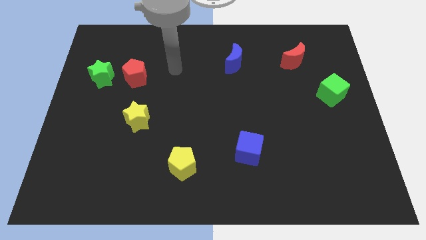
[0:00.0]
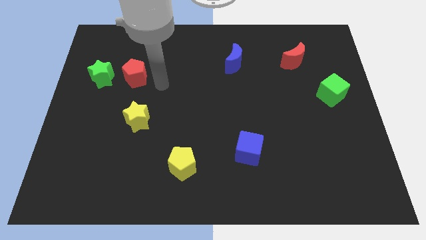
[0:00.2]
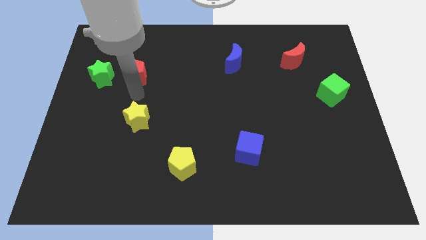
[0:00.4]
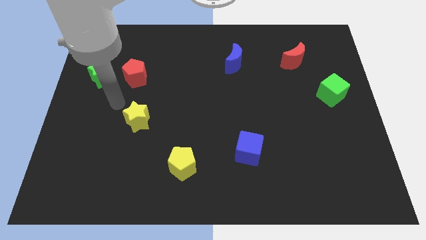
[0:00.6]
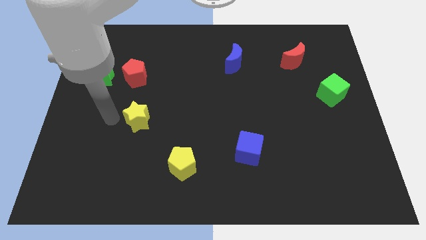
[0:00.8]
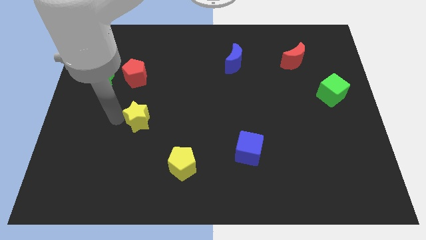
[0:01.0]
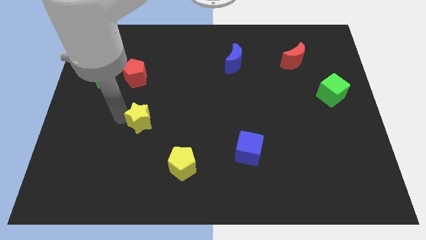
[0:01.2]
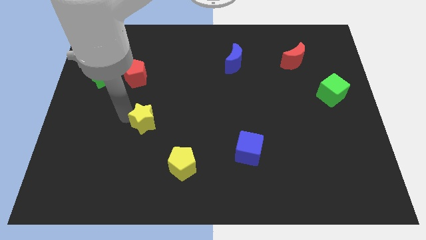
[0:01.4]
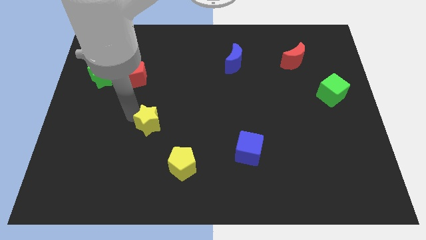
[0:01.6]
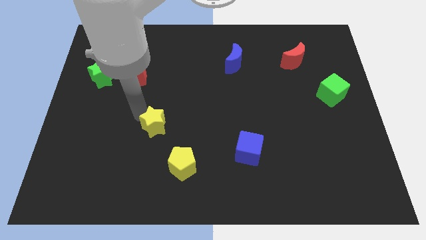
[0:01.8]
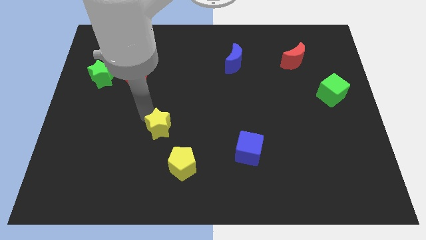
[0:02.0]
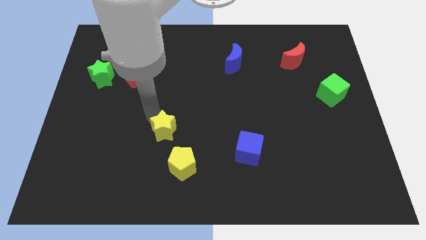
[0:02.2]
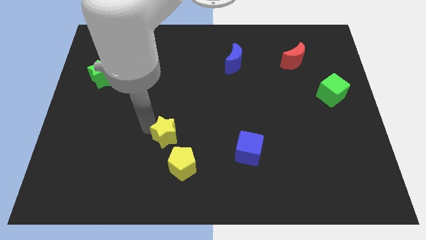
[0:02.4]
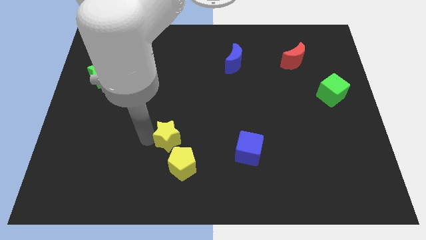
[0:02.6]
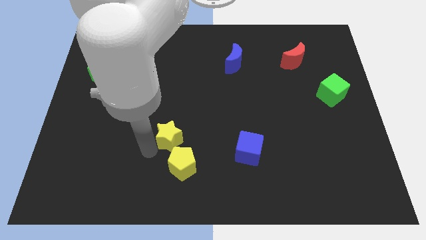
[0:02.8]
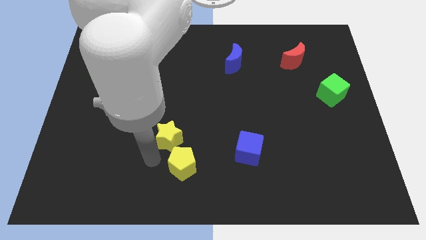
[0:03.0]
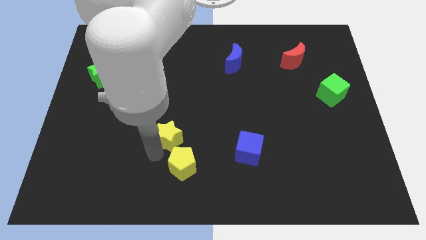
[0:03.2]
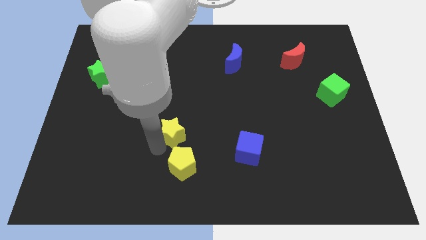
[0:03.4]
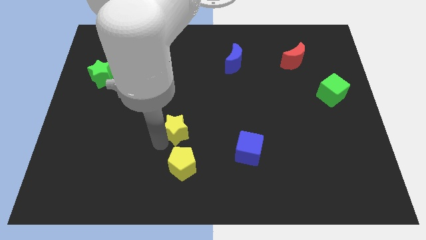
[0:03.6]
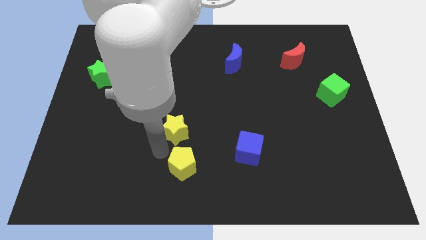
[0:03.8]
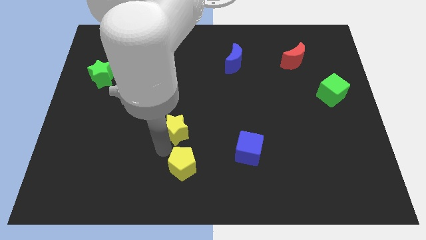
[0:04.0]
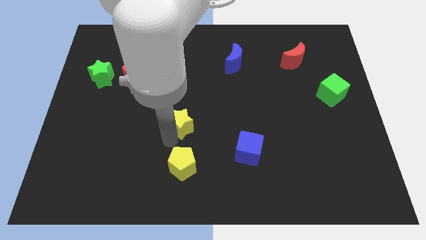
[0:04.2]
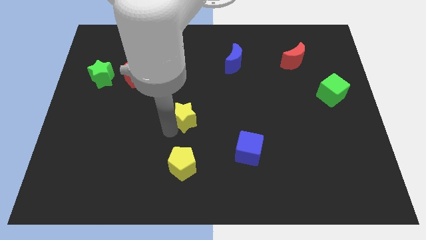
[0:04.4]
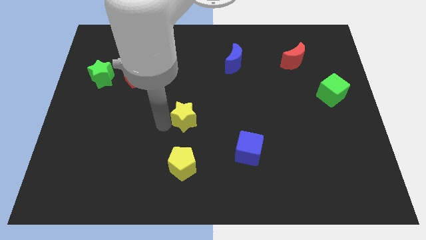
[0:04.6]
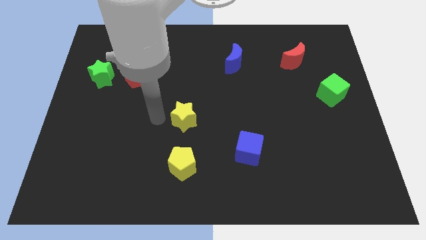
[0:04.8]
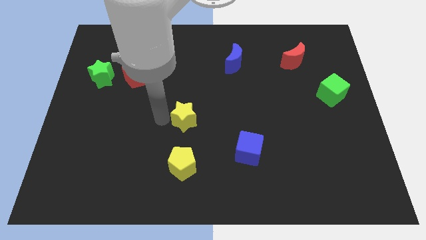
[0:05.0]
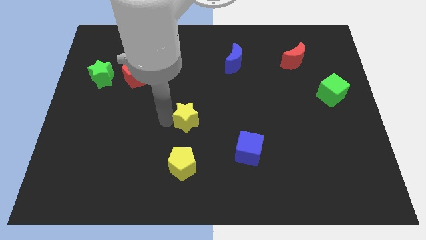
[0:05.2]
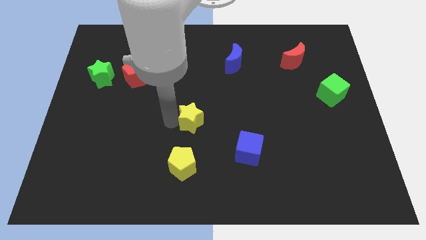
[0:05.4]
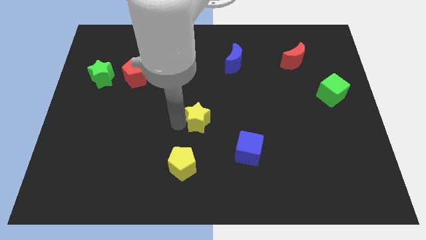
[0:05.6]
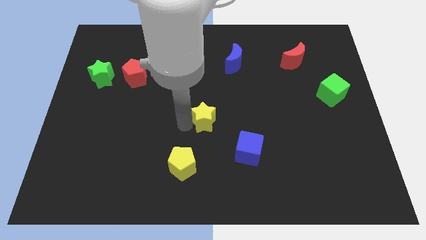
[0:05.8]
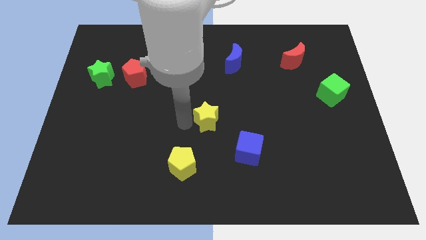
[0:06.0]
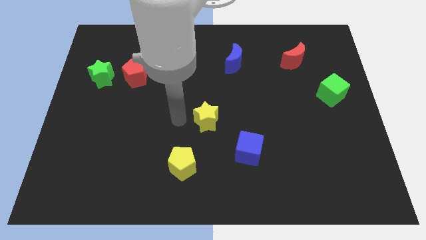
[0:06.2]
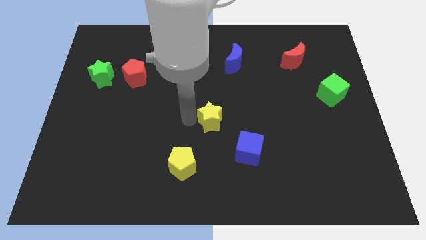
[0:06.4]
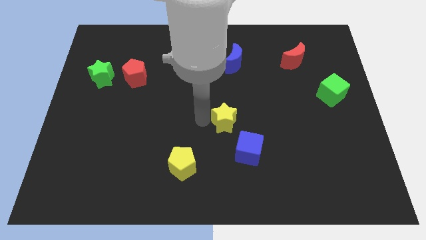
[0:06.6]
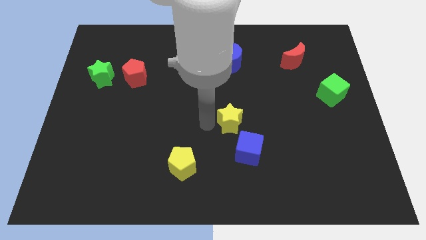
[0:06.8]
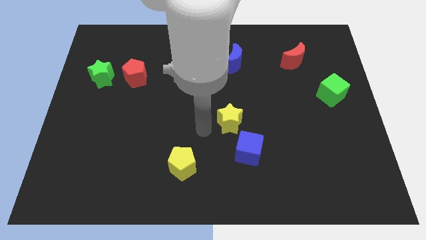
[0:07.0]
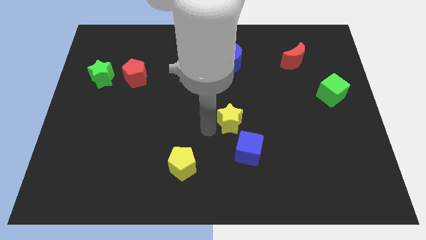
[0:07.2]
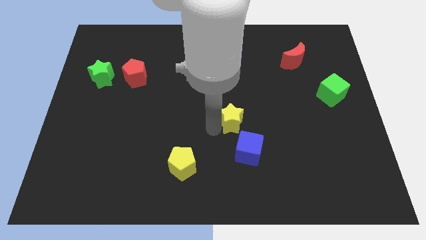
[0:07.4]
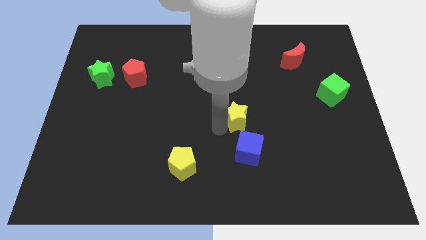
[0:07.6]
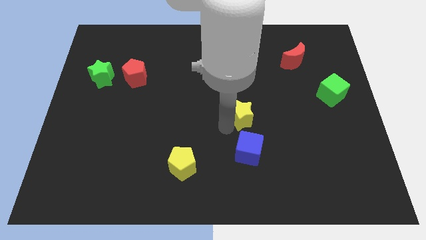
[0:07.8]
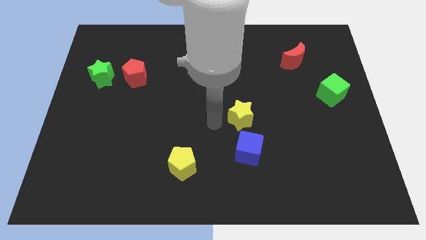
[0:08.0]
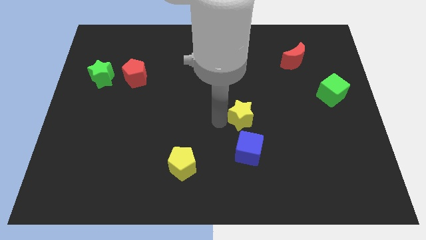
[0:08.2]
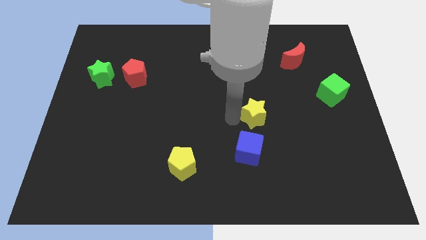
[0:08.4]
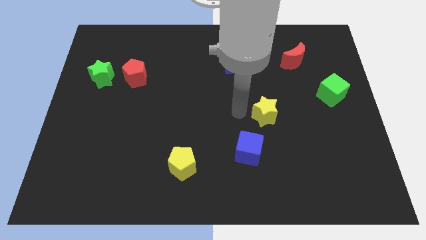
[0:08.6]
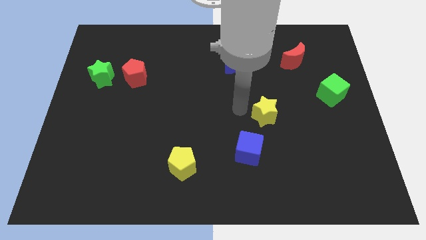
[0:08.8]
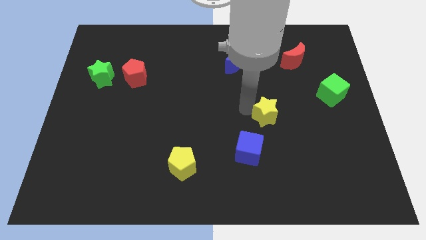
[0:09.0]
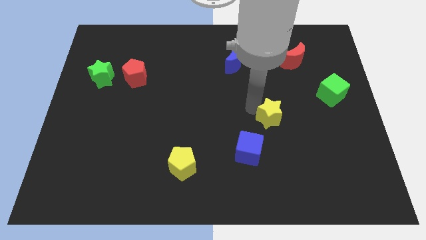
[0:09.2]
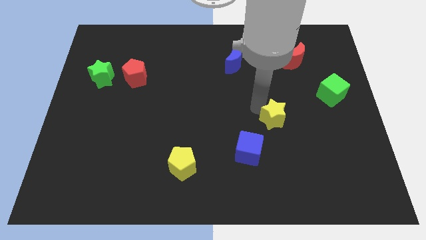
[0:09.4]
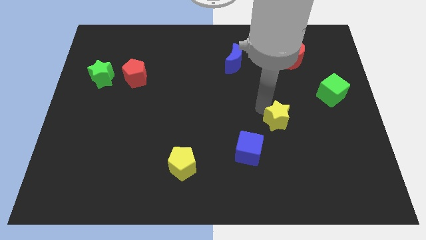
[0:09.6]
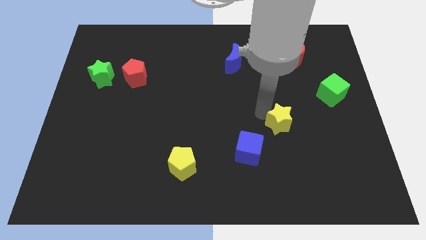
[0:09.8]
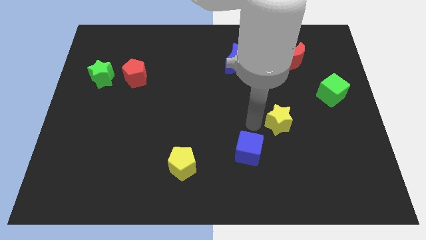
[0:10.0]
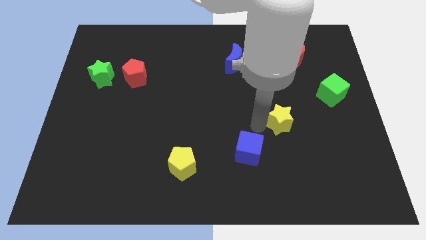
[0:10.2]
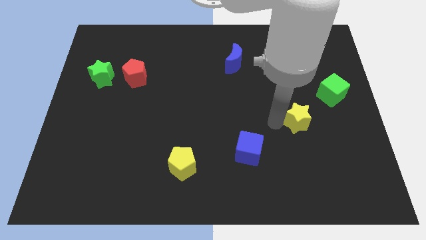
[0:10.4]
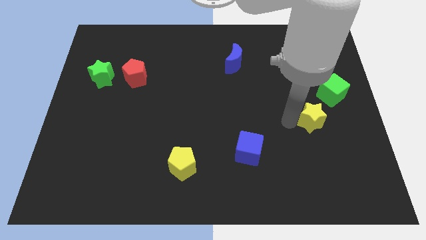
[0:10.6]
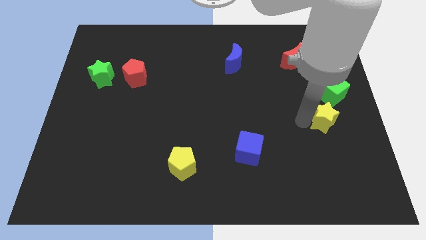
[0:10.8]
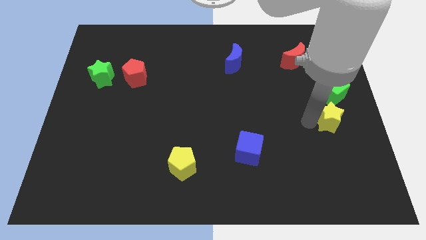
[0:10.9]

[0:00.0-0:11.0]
put the yellow star to the right side of the board

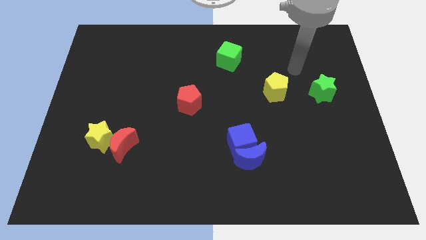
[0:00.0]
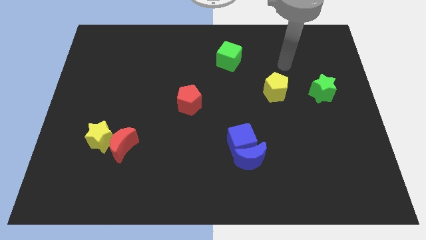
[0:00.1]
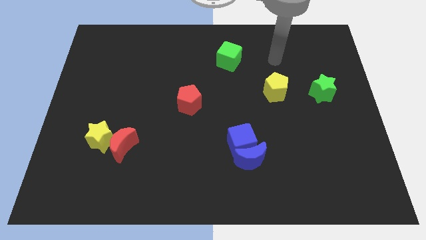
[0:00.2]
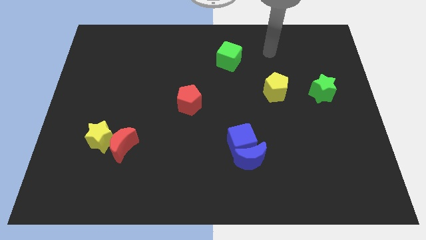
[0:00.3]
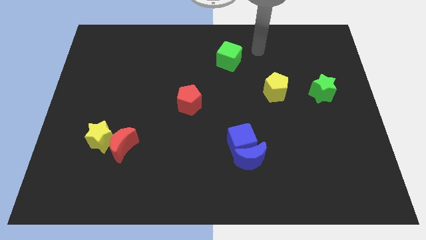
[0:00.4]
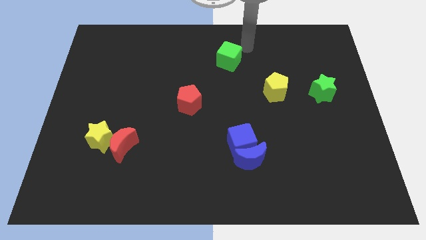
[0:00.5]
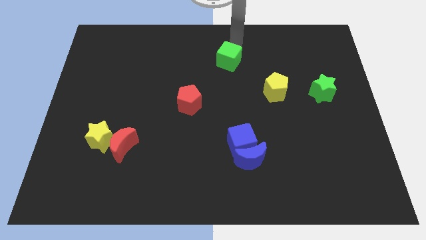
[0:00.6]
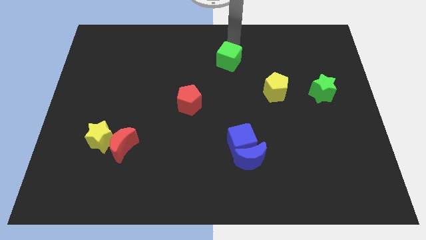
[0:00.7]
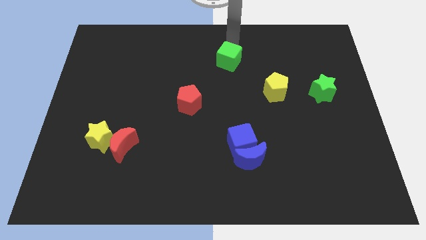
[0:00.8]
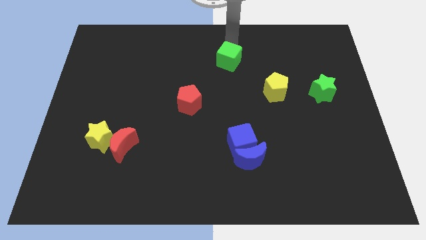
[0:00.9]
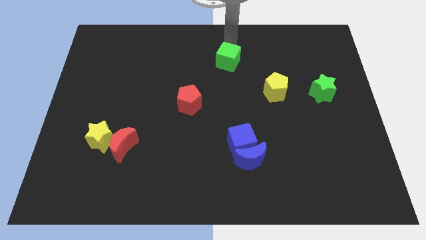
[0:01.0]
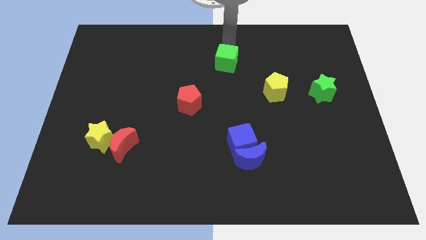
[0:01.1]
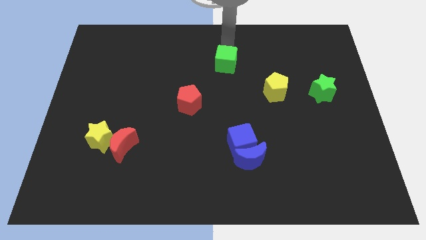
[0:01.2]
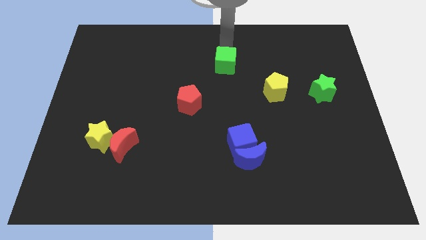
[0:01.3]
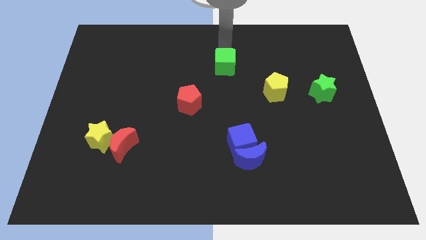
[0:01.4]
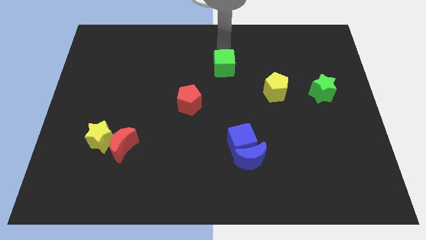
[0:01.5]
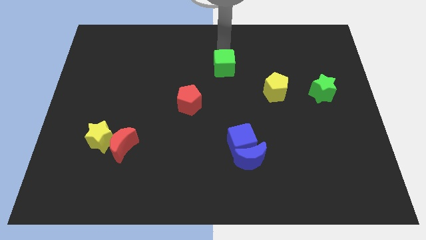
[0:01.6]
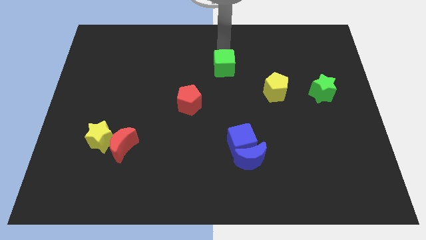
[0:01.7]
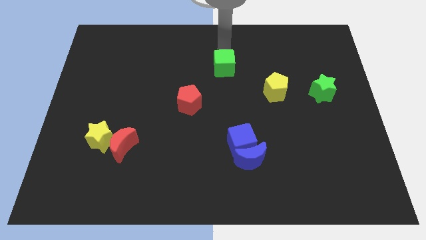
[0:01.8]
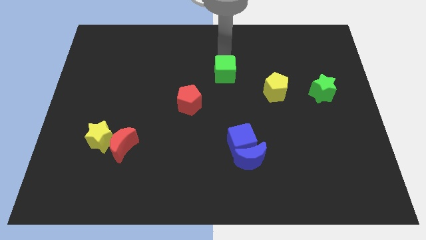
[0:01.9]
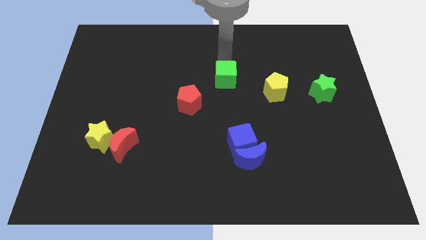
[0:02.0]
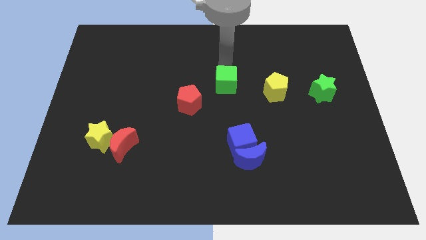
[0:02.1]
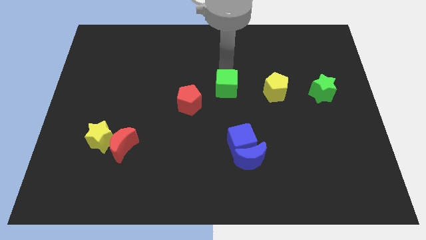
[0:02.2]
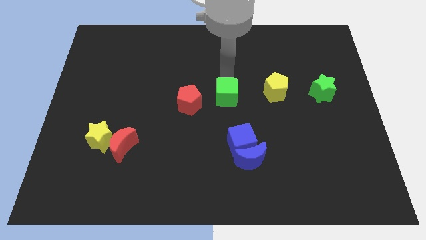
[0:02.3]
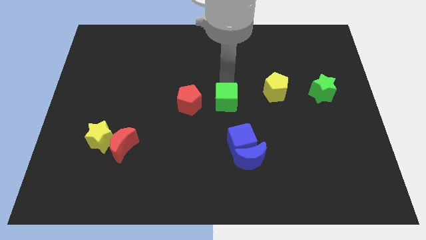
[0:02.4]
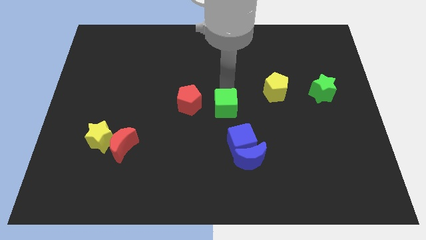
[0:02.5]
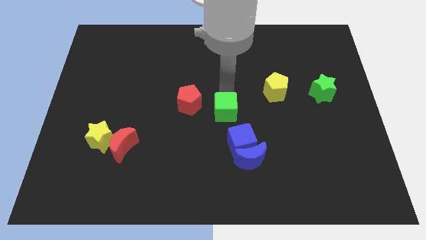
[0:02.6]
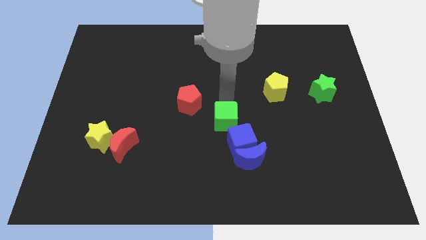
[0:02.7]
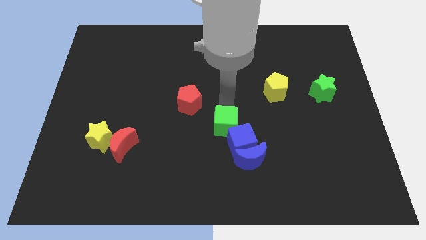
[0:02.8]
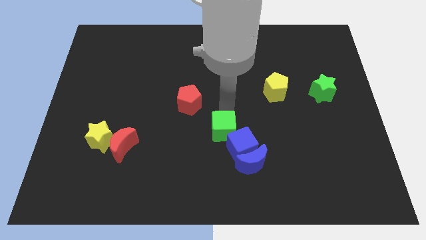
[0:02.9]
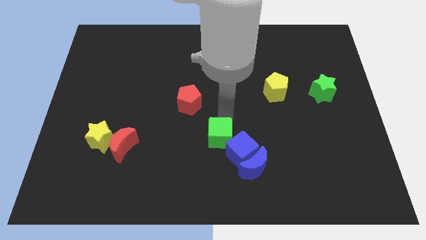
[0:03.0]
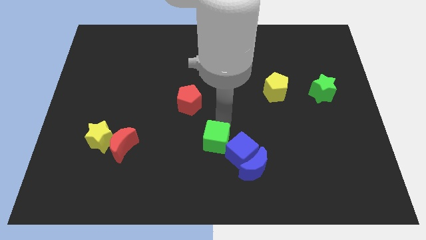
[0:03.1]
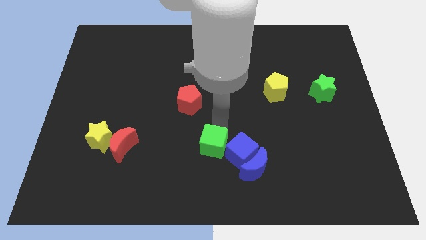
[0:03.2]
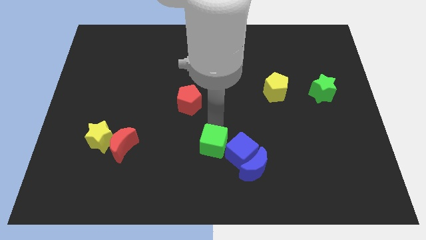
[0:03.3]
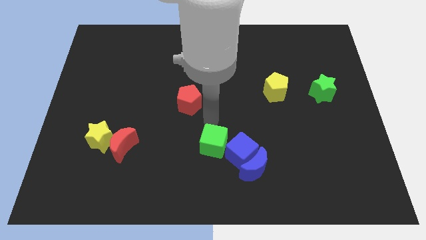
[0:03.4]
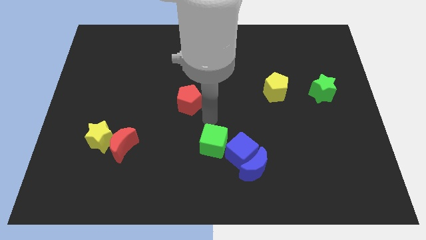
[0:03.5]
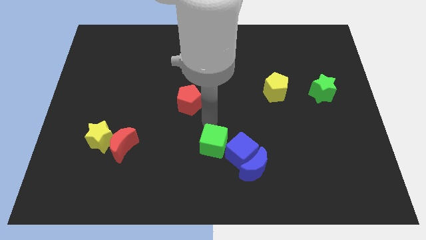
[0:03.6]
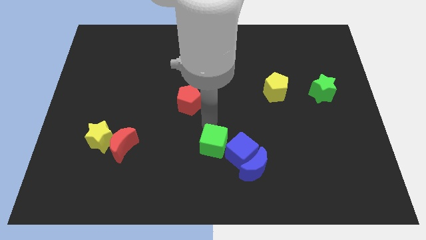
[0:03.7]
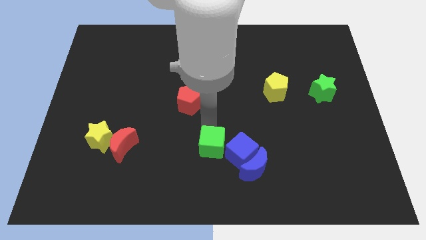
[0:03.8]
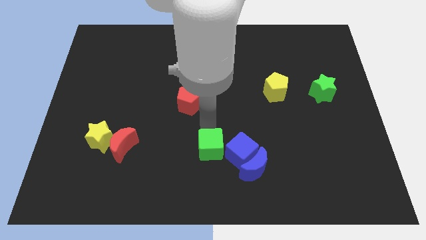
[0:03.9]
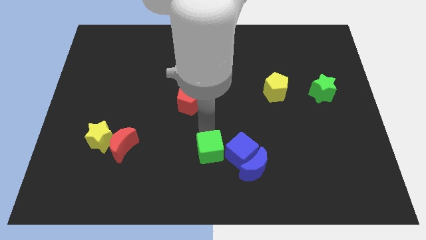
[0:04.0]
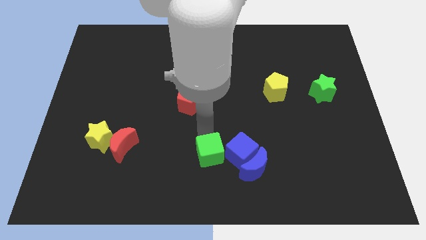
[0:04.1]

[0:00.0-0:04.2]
push the green cube to the bottom
